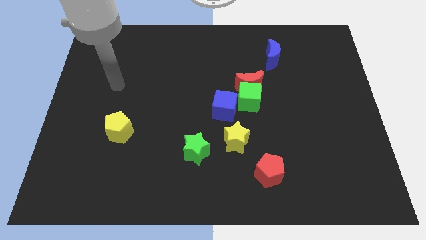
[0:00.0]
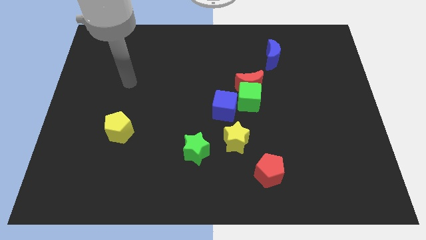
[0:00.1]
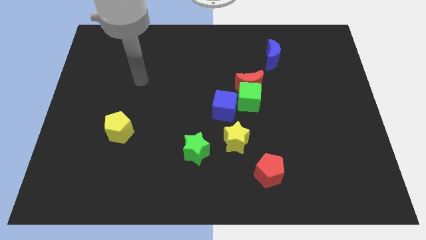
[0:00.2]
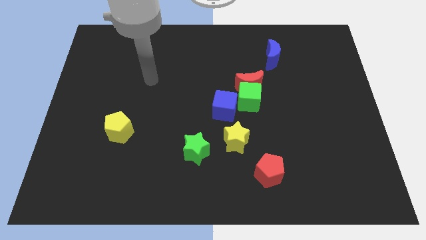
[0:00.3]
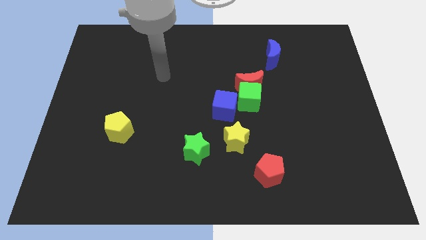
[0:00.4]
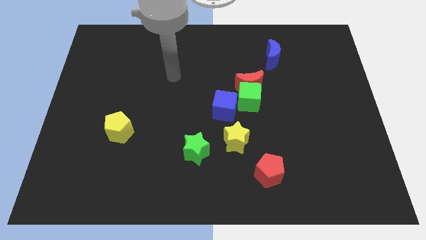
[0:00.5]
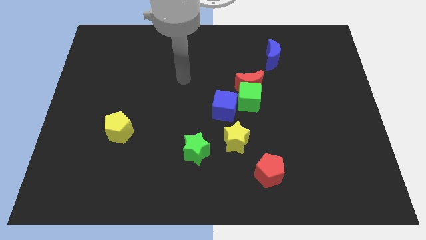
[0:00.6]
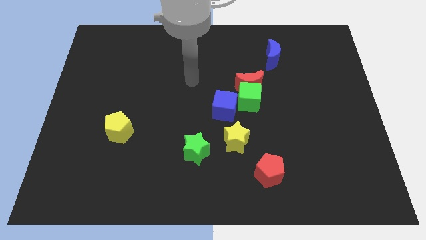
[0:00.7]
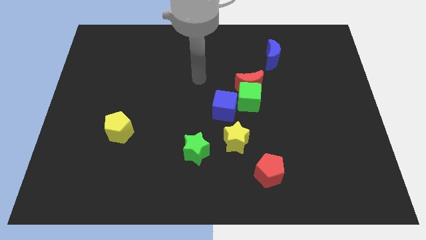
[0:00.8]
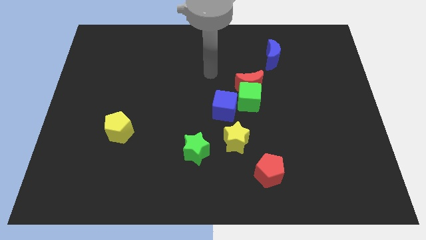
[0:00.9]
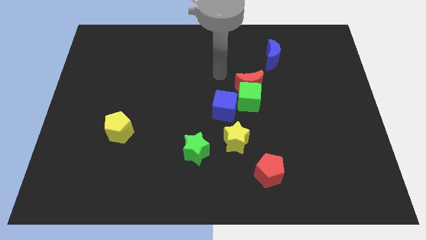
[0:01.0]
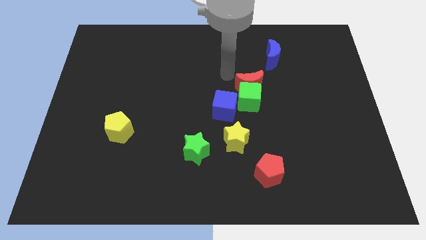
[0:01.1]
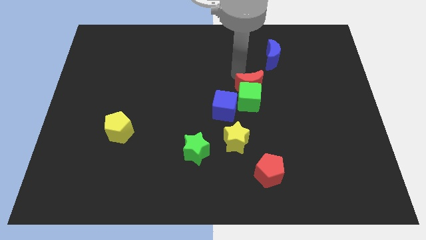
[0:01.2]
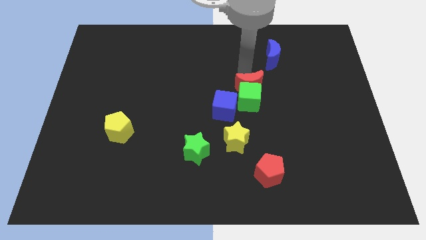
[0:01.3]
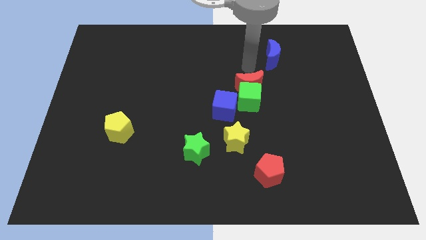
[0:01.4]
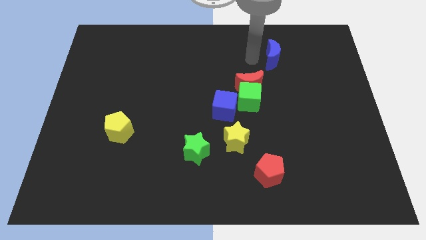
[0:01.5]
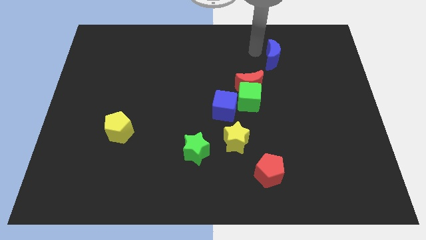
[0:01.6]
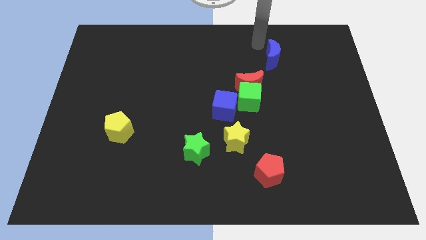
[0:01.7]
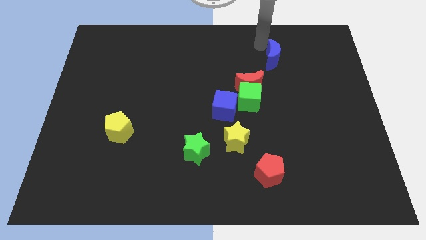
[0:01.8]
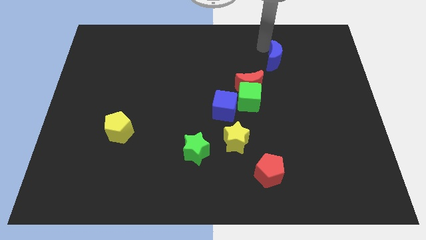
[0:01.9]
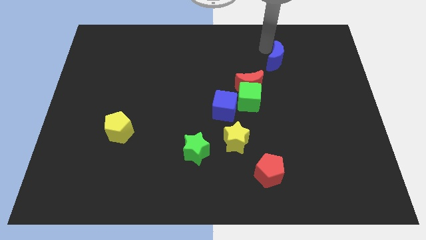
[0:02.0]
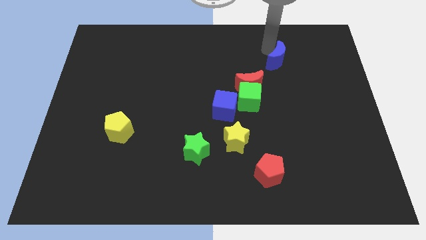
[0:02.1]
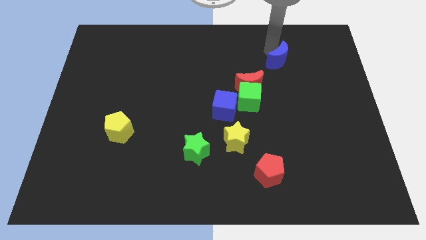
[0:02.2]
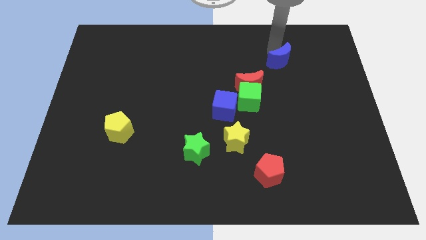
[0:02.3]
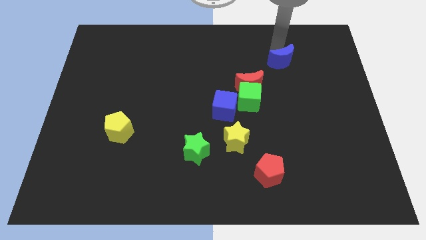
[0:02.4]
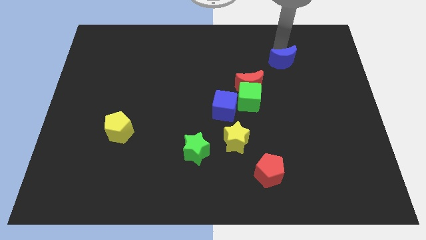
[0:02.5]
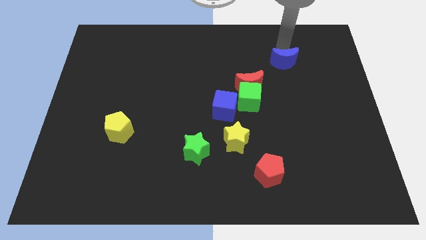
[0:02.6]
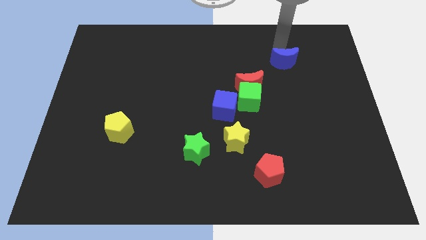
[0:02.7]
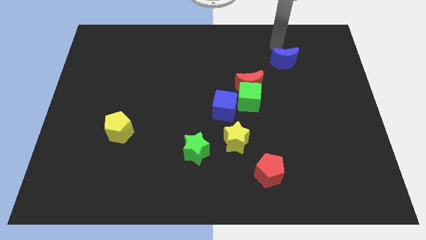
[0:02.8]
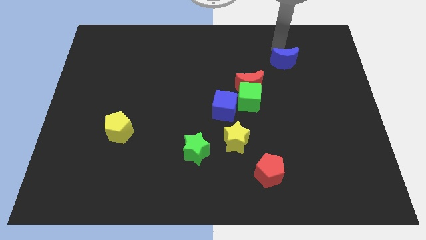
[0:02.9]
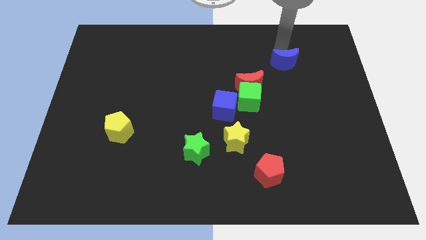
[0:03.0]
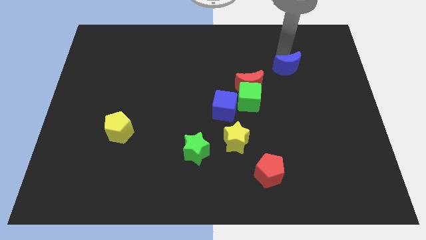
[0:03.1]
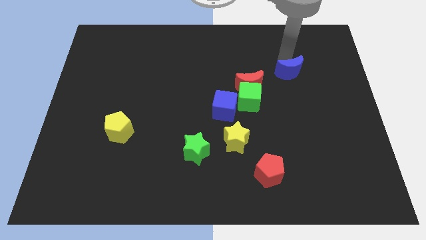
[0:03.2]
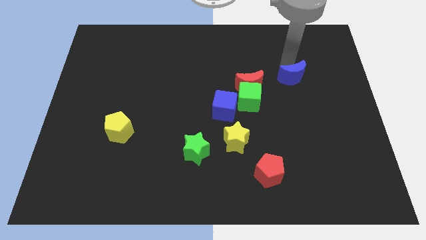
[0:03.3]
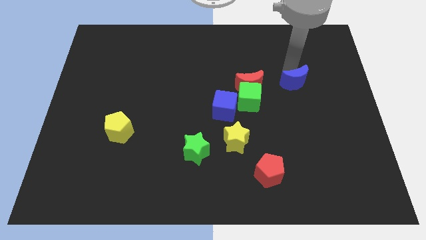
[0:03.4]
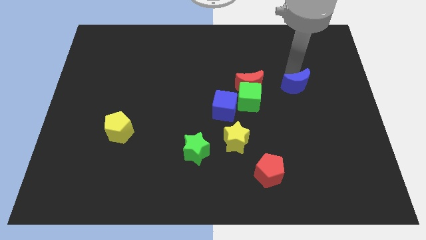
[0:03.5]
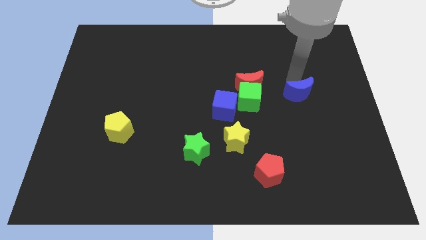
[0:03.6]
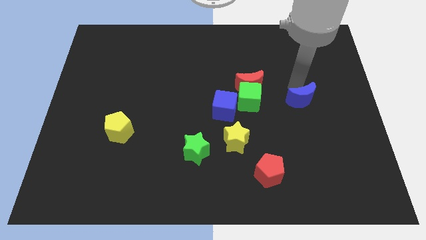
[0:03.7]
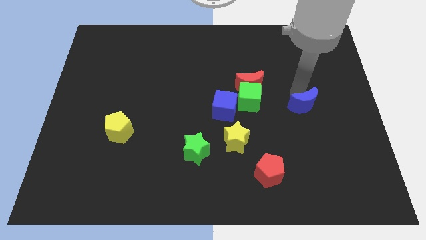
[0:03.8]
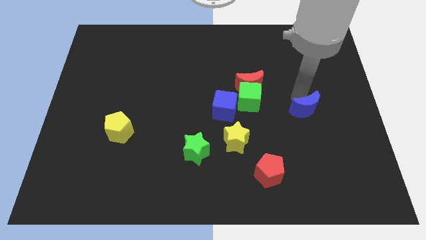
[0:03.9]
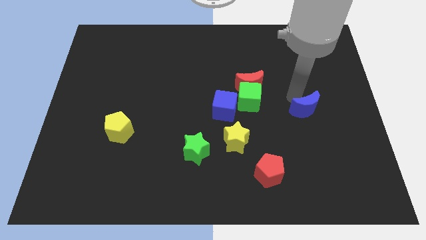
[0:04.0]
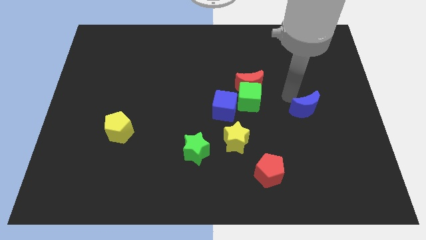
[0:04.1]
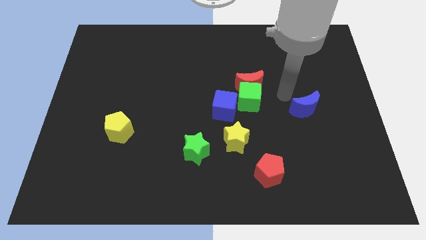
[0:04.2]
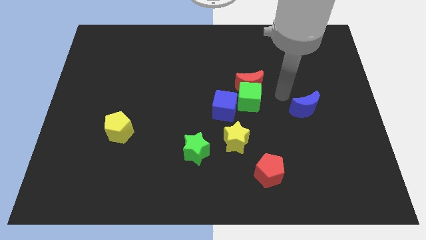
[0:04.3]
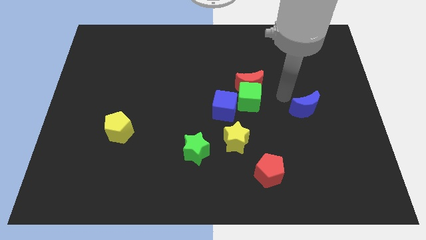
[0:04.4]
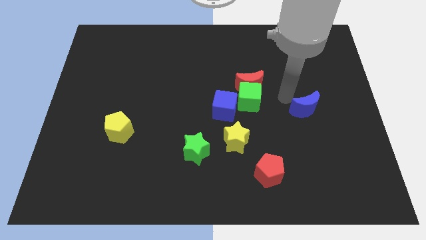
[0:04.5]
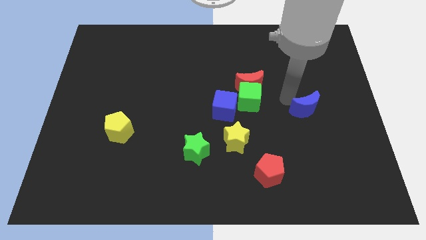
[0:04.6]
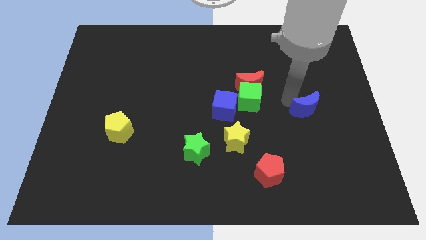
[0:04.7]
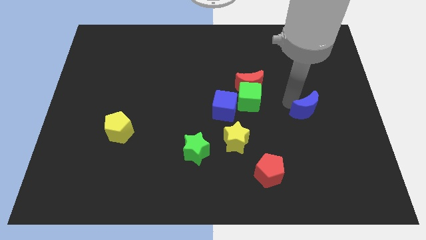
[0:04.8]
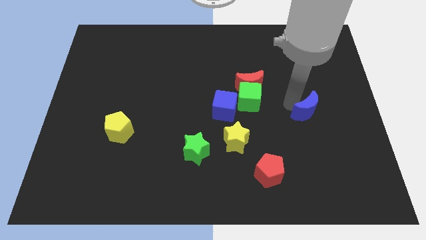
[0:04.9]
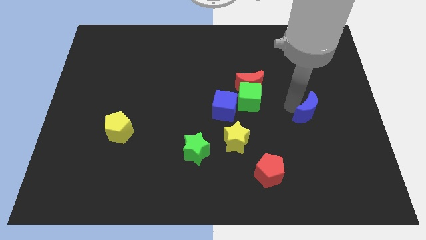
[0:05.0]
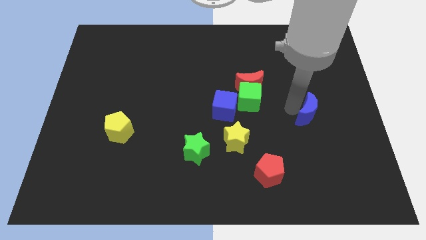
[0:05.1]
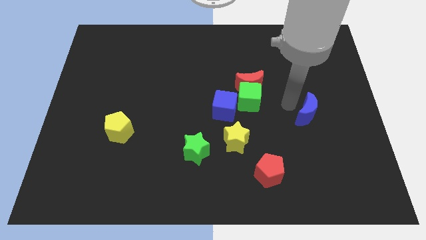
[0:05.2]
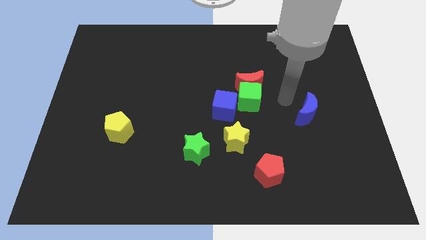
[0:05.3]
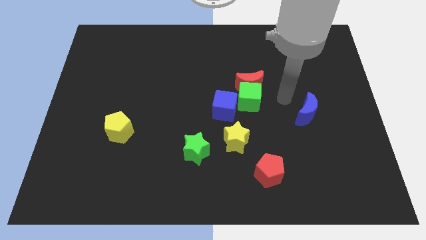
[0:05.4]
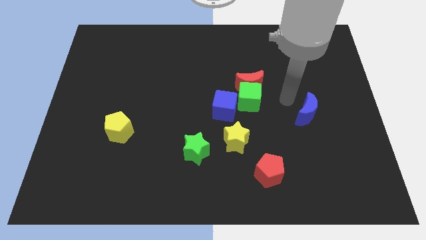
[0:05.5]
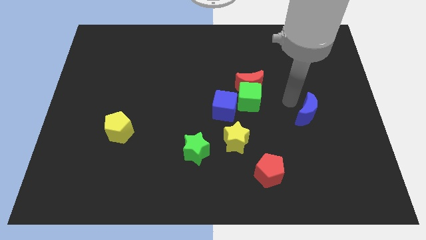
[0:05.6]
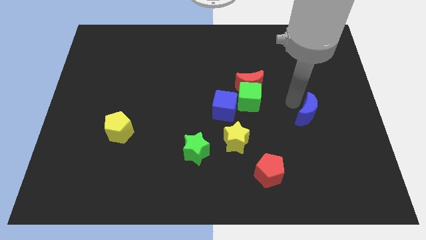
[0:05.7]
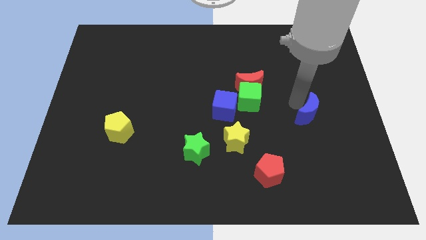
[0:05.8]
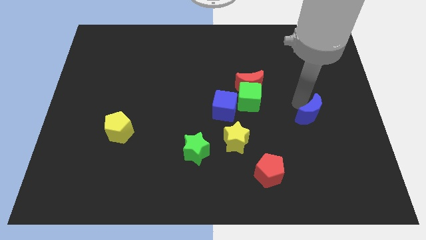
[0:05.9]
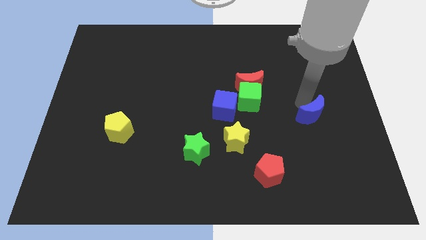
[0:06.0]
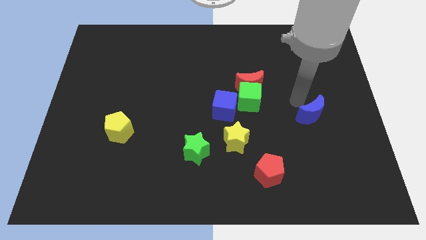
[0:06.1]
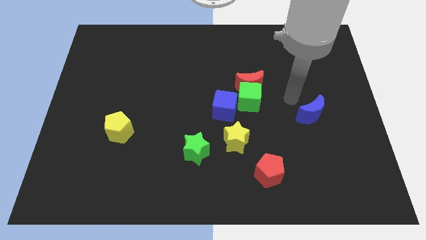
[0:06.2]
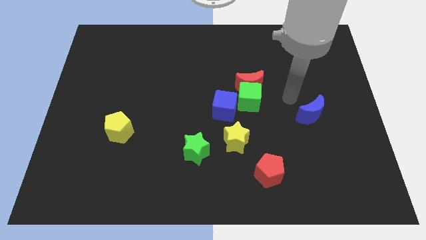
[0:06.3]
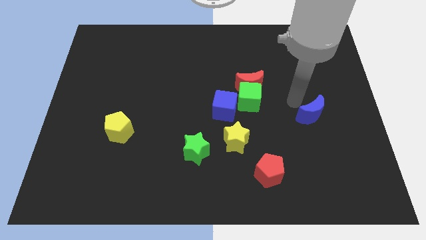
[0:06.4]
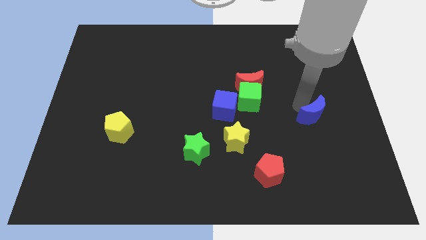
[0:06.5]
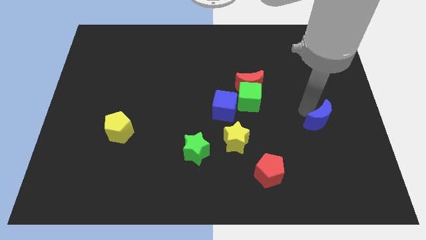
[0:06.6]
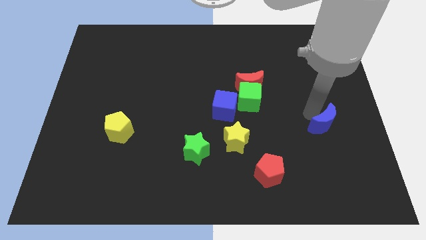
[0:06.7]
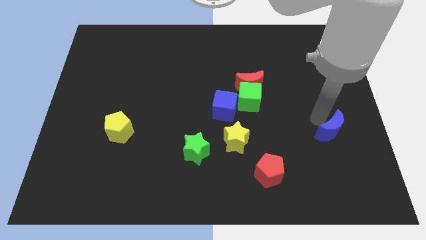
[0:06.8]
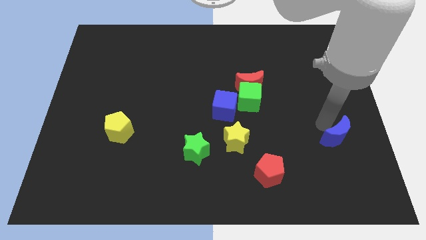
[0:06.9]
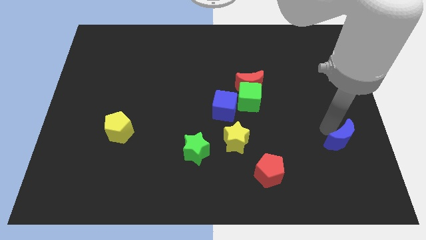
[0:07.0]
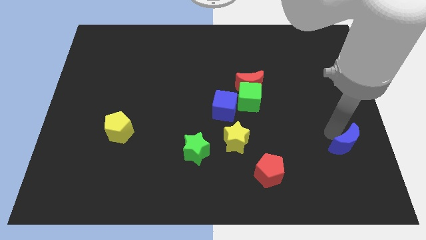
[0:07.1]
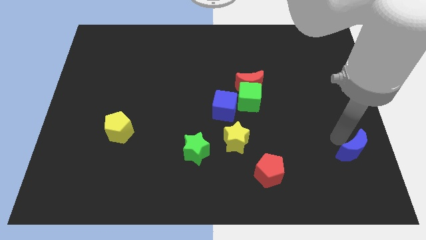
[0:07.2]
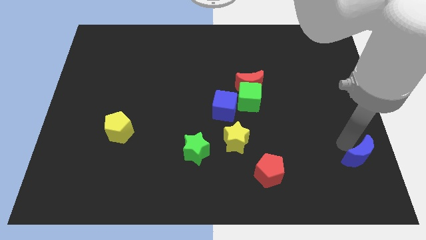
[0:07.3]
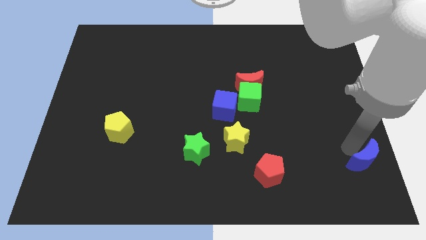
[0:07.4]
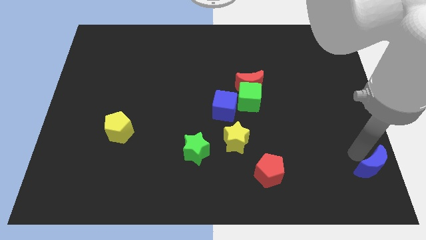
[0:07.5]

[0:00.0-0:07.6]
move the blue moon to the bottom right
